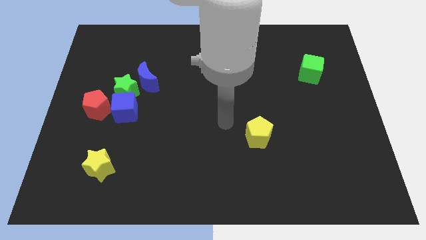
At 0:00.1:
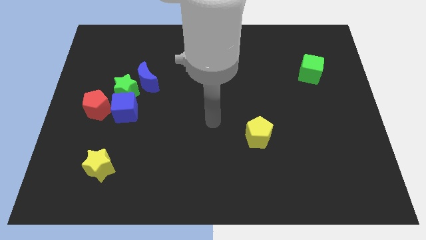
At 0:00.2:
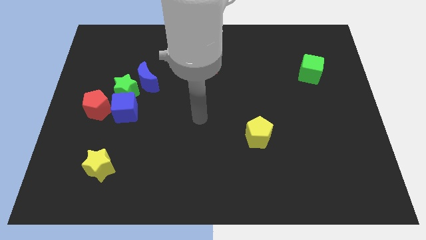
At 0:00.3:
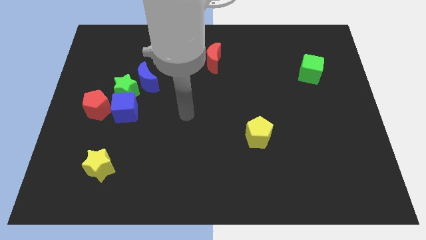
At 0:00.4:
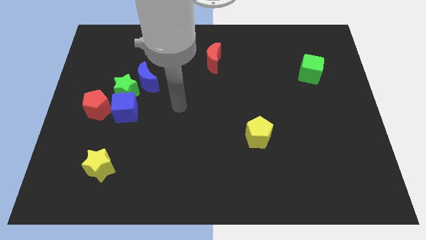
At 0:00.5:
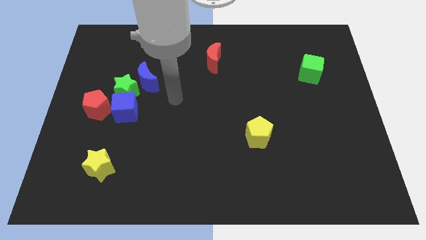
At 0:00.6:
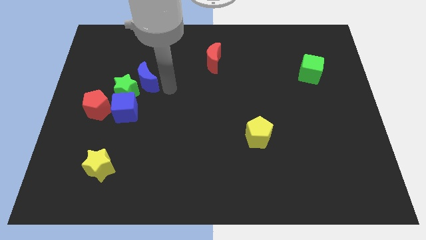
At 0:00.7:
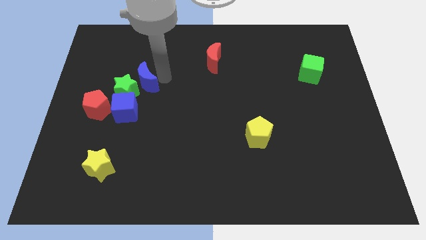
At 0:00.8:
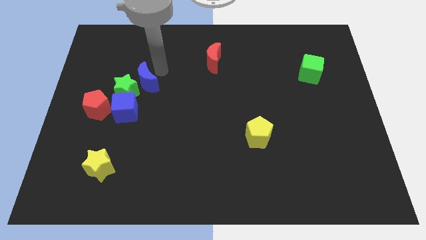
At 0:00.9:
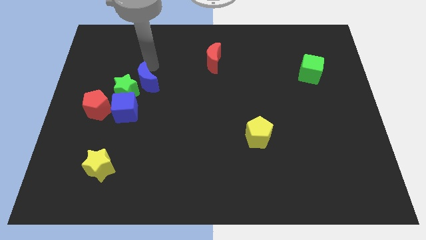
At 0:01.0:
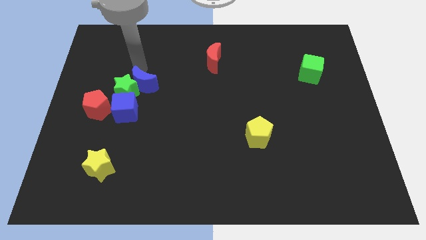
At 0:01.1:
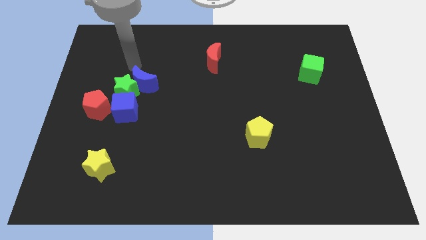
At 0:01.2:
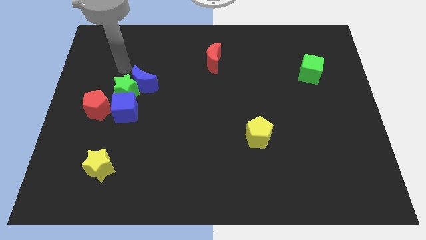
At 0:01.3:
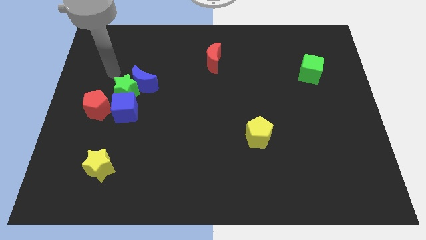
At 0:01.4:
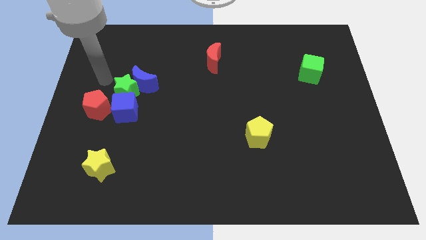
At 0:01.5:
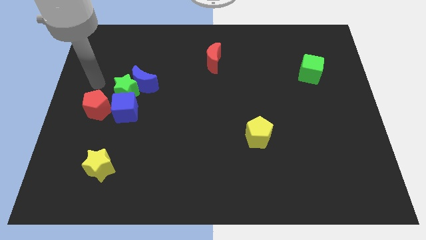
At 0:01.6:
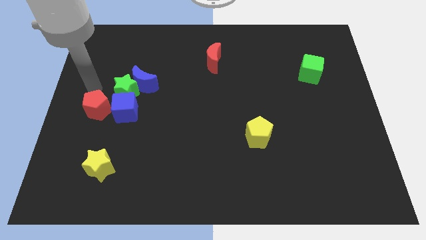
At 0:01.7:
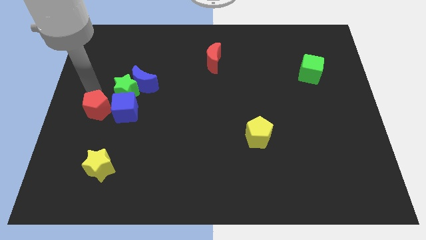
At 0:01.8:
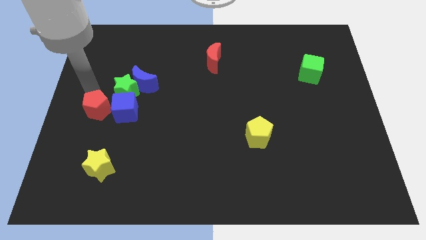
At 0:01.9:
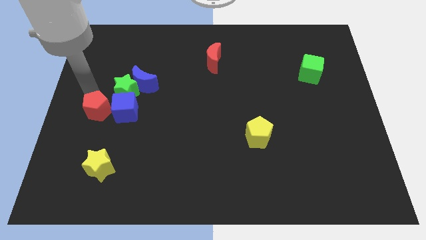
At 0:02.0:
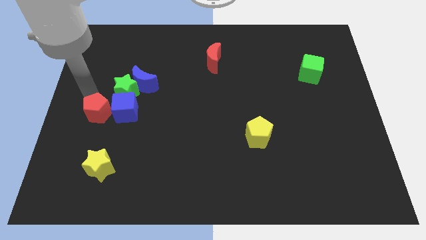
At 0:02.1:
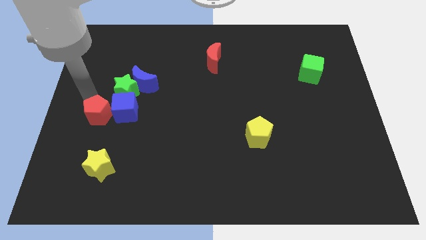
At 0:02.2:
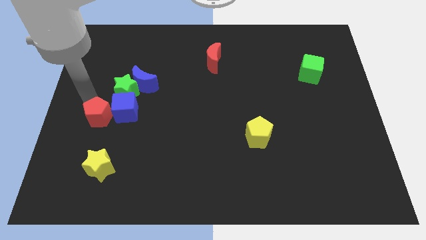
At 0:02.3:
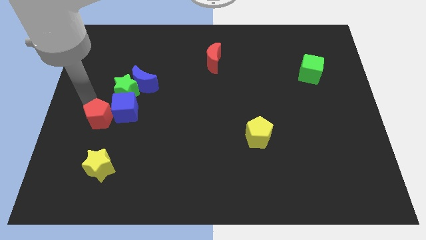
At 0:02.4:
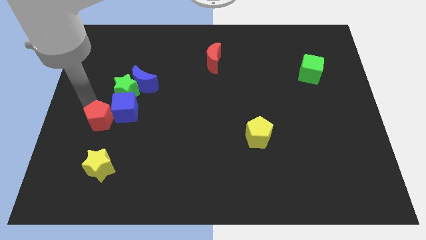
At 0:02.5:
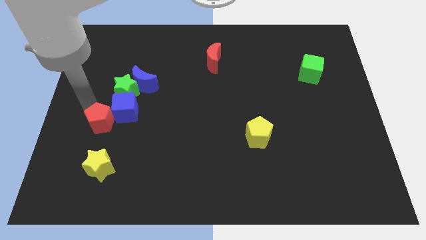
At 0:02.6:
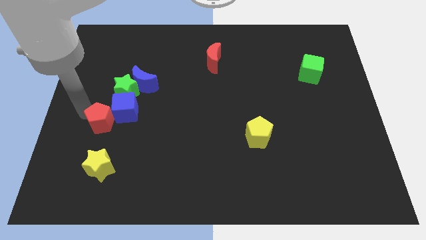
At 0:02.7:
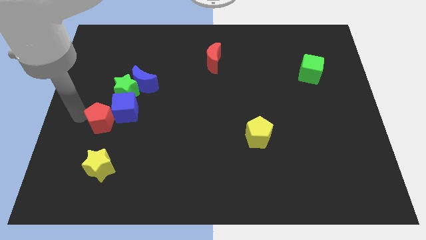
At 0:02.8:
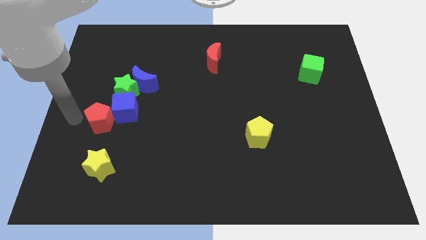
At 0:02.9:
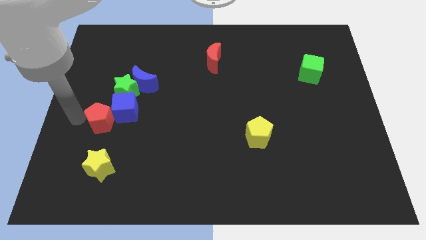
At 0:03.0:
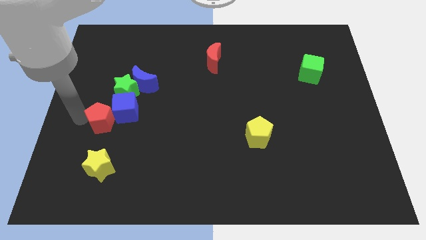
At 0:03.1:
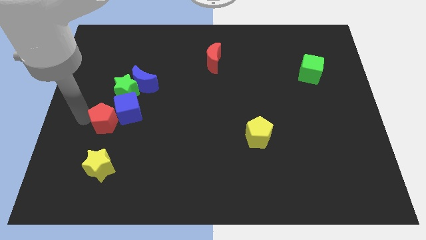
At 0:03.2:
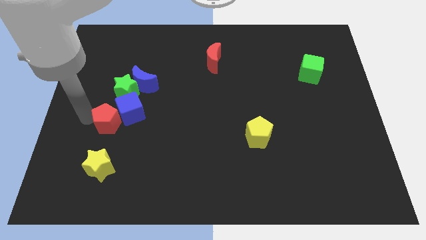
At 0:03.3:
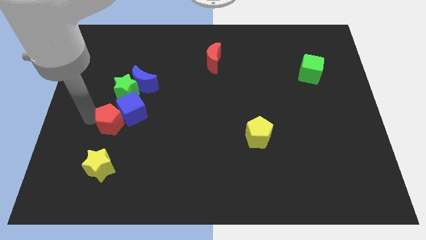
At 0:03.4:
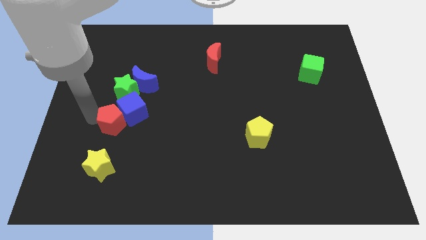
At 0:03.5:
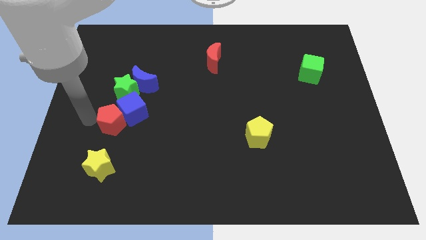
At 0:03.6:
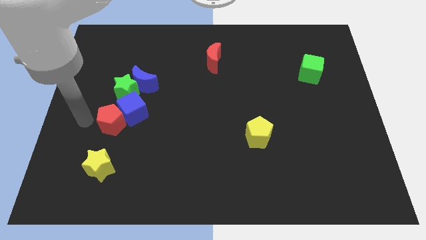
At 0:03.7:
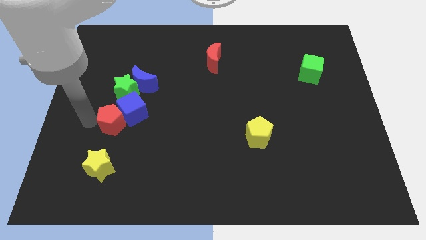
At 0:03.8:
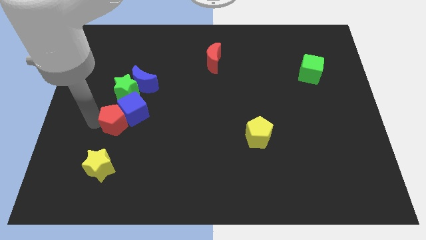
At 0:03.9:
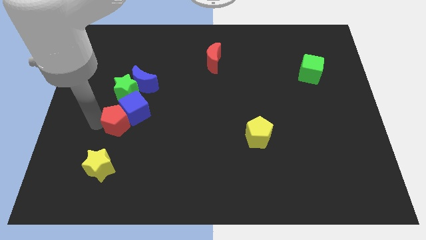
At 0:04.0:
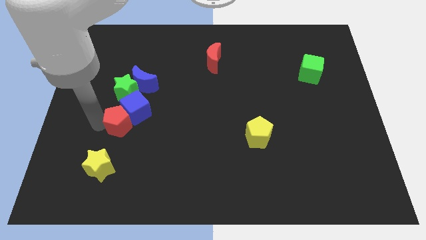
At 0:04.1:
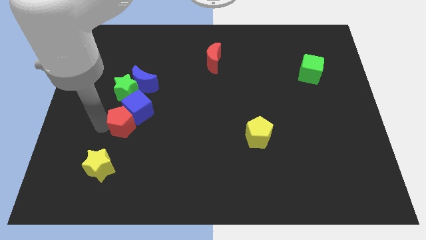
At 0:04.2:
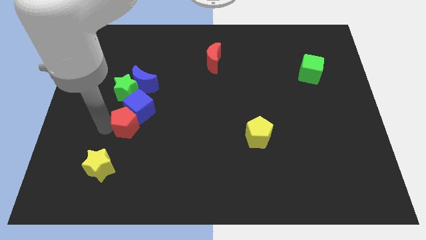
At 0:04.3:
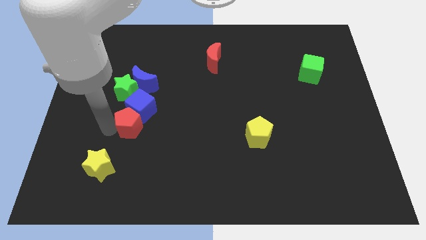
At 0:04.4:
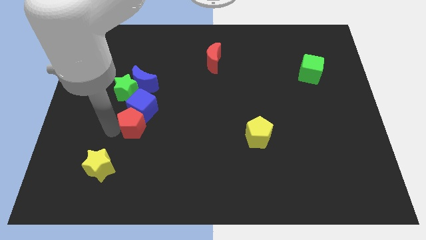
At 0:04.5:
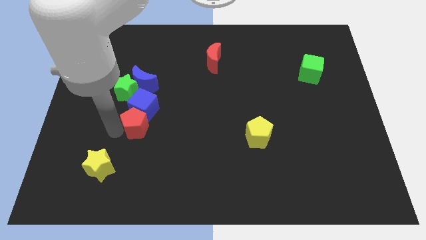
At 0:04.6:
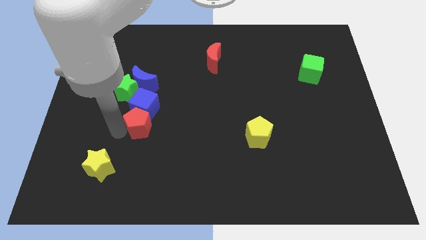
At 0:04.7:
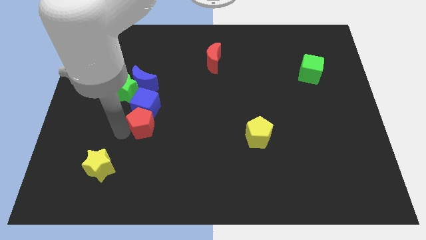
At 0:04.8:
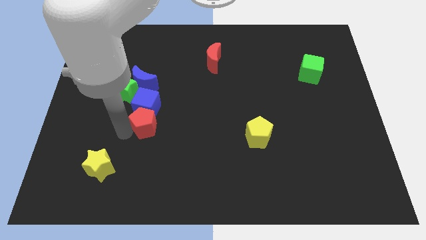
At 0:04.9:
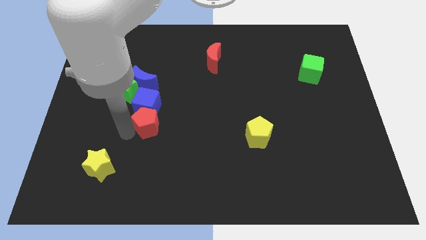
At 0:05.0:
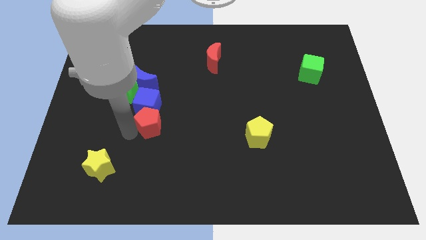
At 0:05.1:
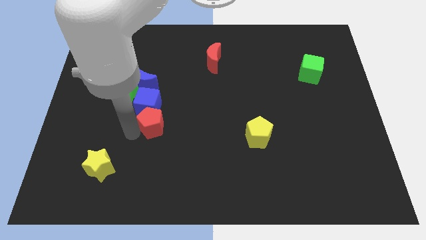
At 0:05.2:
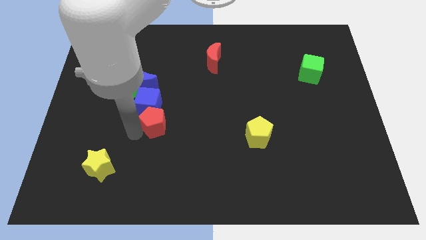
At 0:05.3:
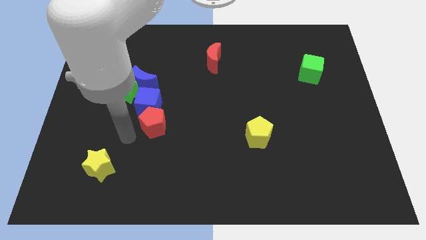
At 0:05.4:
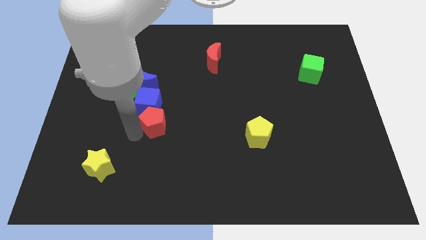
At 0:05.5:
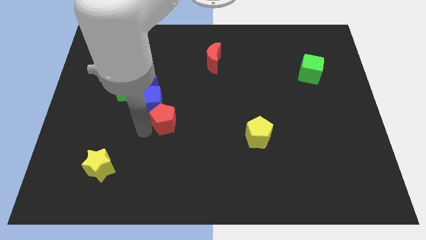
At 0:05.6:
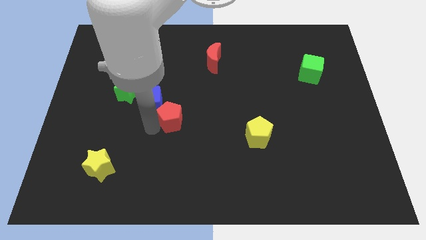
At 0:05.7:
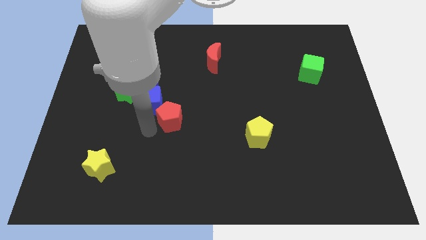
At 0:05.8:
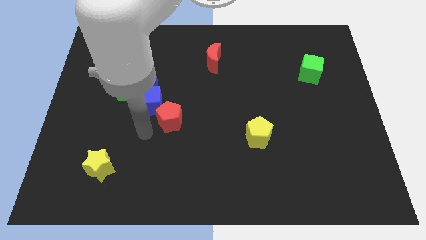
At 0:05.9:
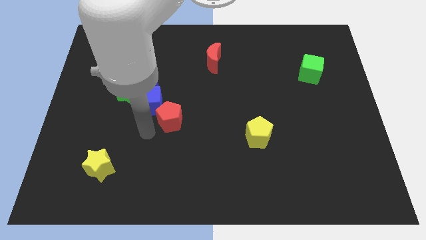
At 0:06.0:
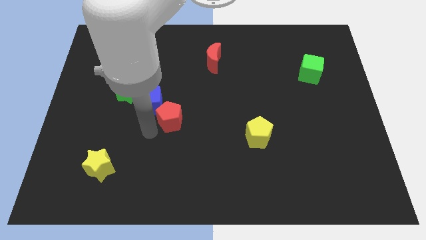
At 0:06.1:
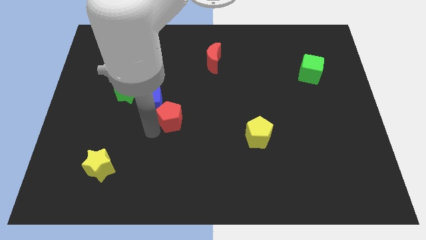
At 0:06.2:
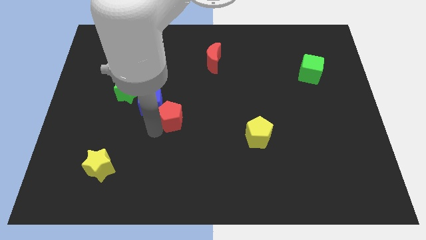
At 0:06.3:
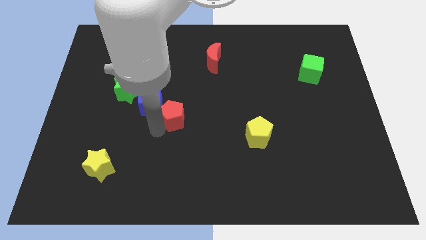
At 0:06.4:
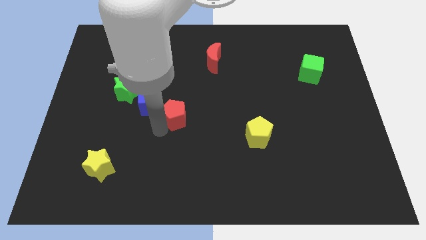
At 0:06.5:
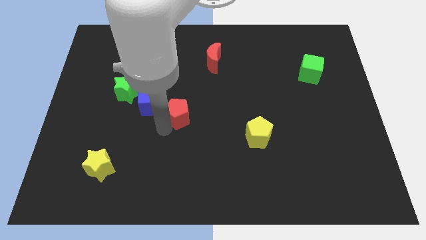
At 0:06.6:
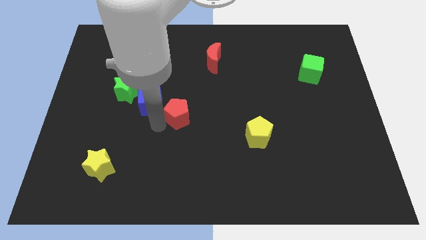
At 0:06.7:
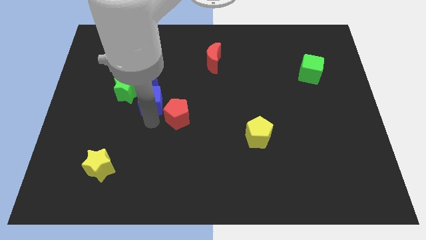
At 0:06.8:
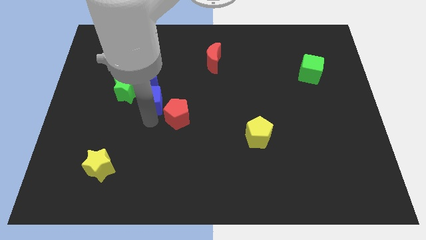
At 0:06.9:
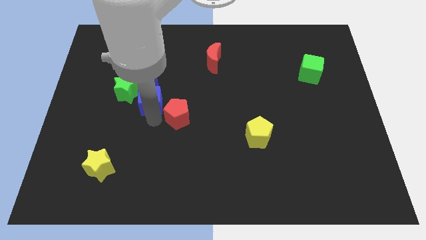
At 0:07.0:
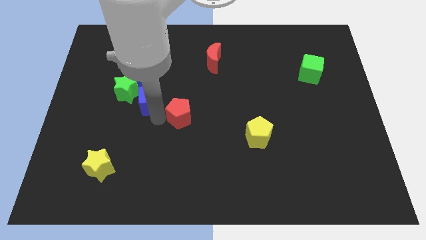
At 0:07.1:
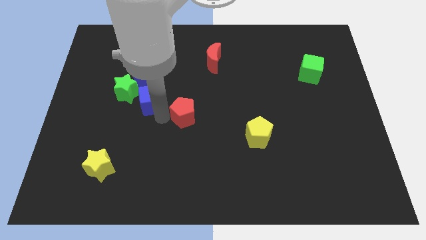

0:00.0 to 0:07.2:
push the red pentagon right

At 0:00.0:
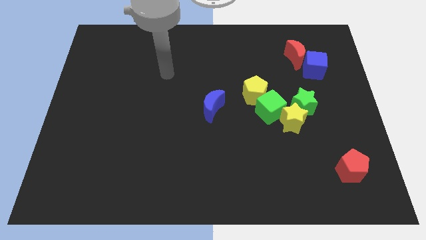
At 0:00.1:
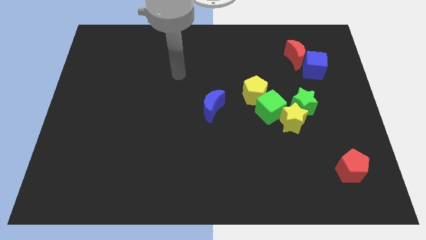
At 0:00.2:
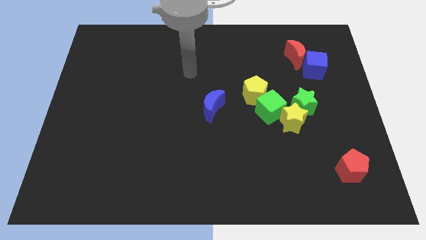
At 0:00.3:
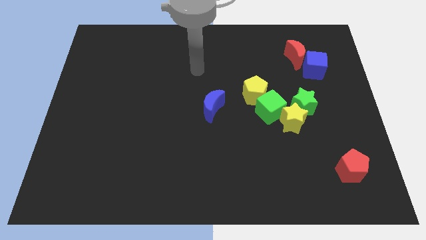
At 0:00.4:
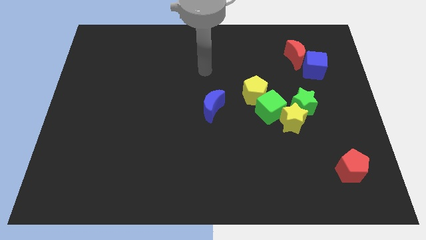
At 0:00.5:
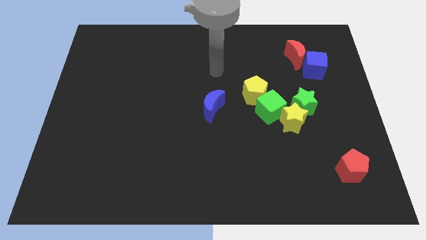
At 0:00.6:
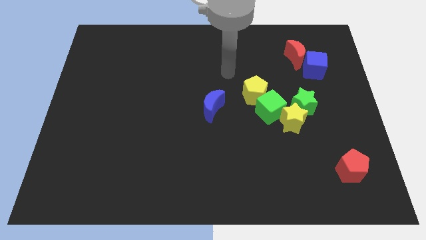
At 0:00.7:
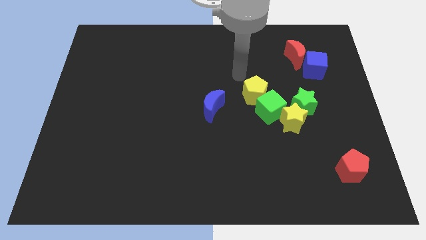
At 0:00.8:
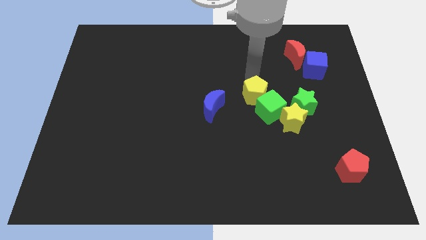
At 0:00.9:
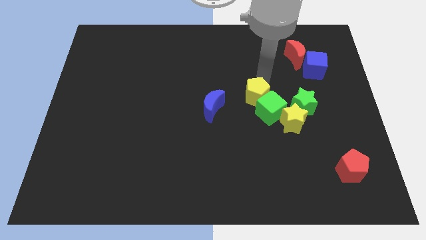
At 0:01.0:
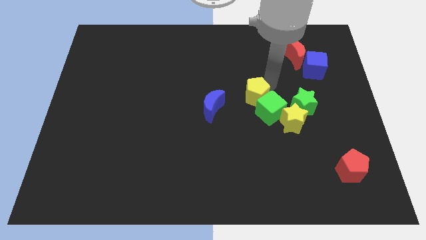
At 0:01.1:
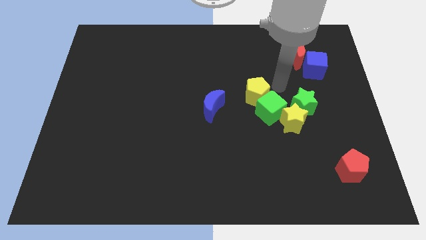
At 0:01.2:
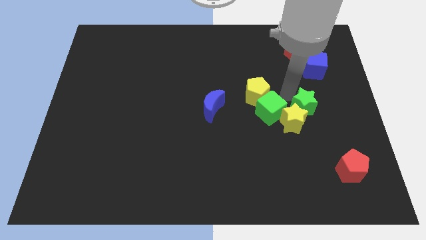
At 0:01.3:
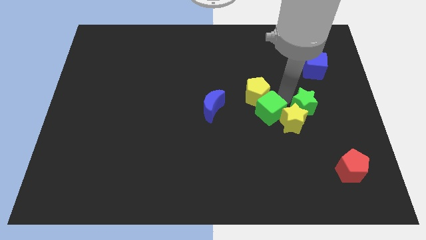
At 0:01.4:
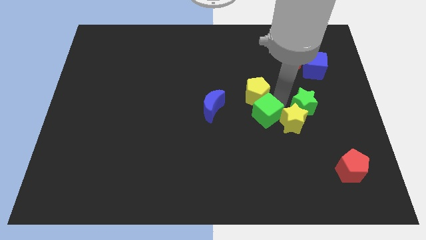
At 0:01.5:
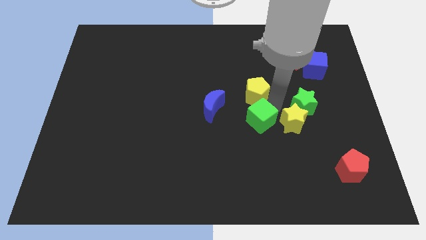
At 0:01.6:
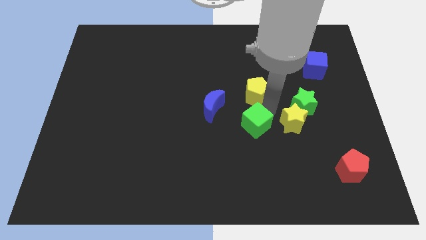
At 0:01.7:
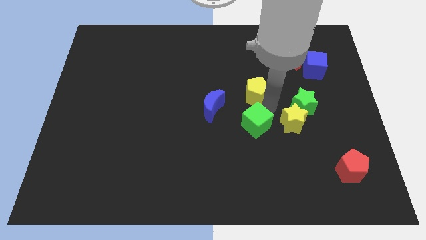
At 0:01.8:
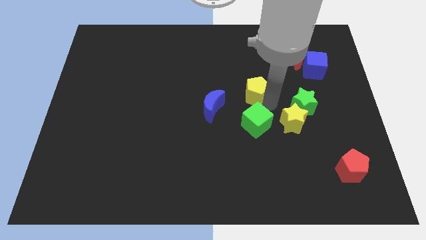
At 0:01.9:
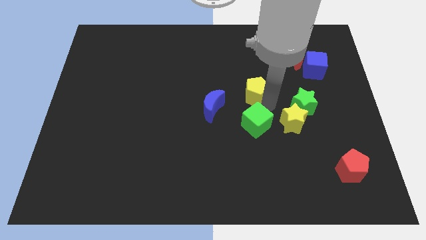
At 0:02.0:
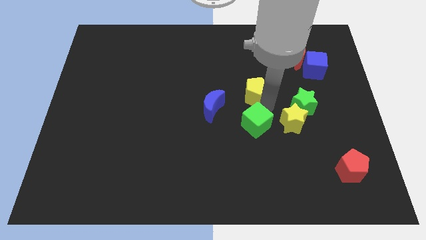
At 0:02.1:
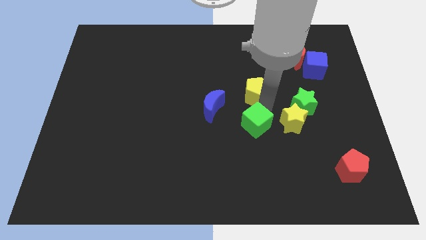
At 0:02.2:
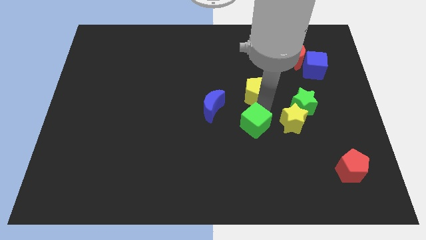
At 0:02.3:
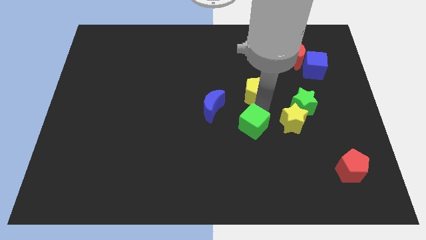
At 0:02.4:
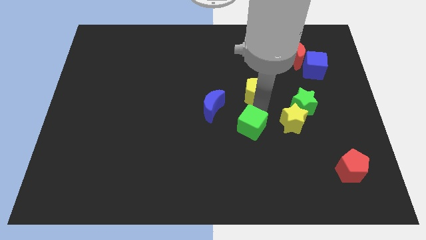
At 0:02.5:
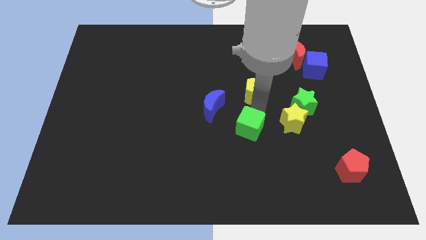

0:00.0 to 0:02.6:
push the green cube slightly downwards and then left
